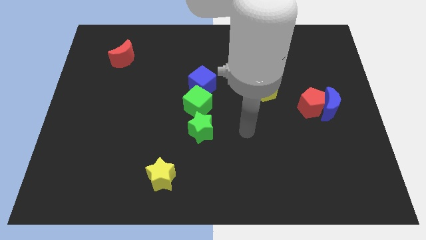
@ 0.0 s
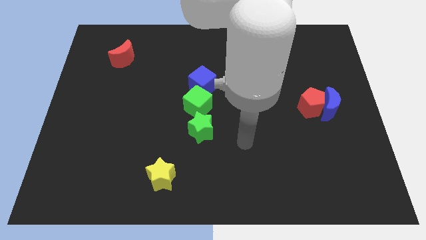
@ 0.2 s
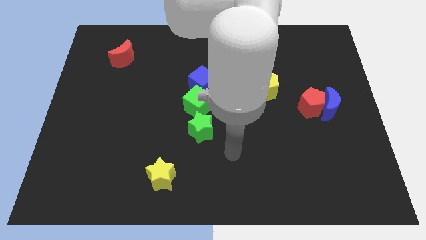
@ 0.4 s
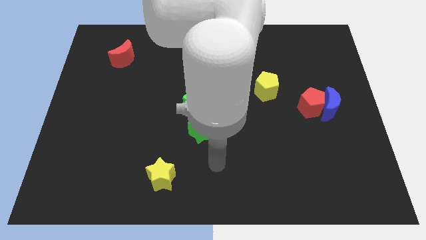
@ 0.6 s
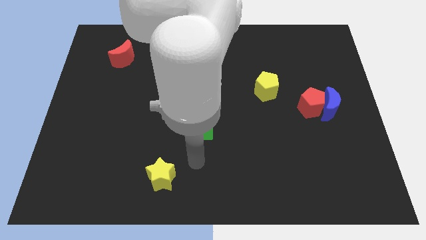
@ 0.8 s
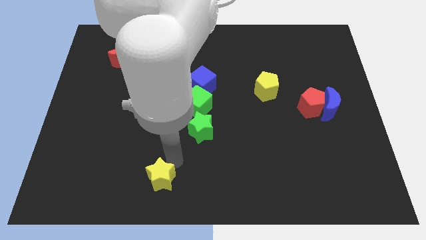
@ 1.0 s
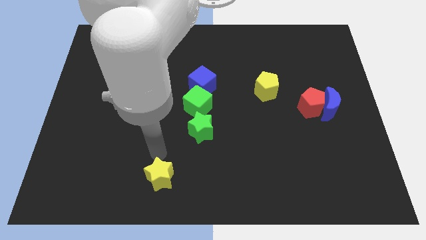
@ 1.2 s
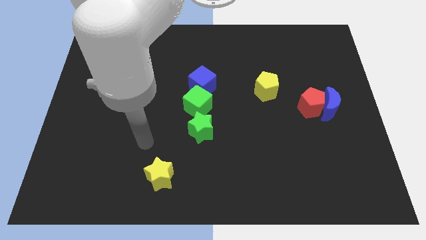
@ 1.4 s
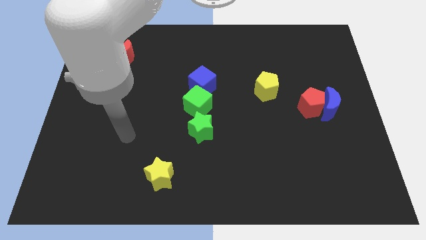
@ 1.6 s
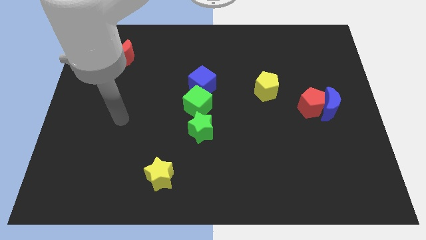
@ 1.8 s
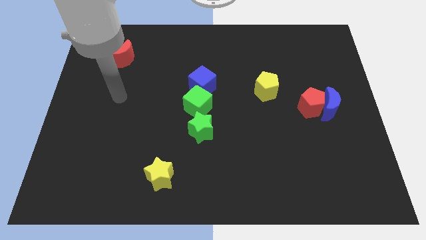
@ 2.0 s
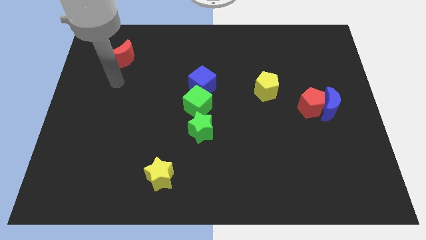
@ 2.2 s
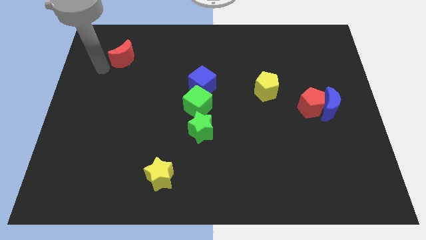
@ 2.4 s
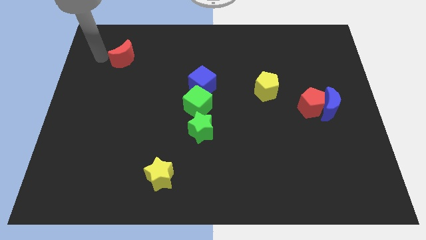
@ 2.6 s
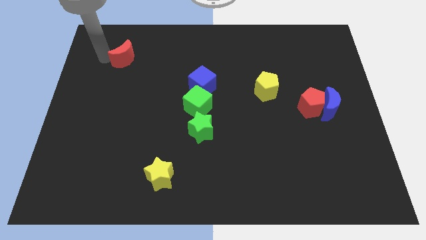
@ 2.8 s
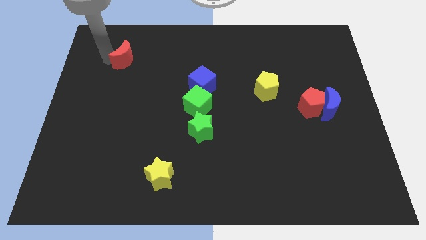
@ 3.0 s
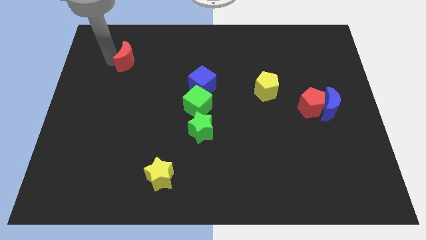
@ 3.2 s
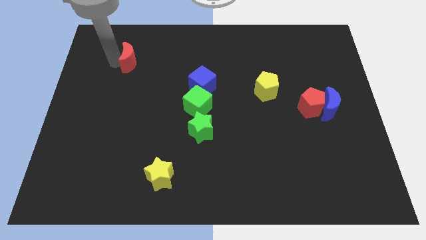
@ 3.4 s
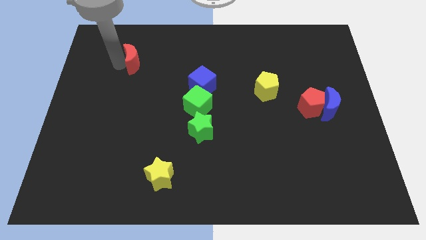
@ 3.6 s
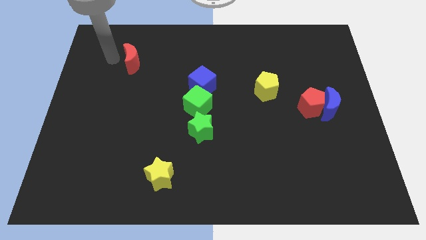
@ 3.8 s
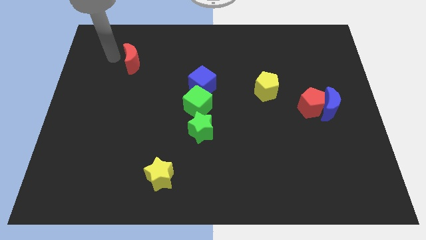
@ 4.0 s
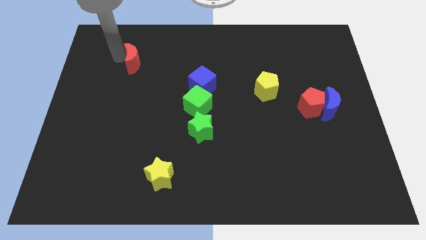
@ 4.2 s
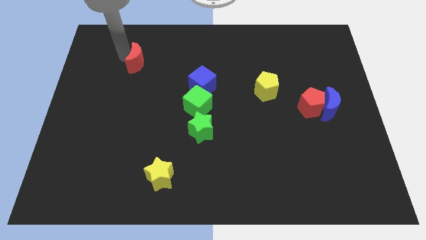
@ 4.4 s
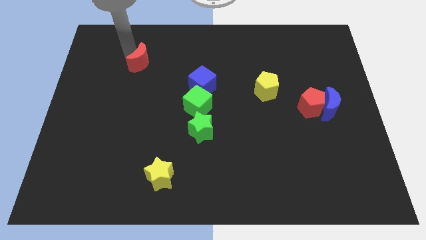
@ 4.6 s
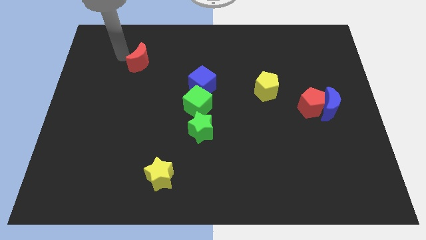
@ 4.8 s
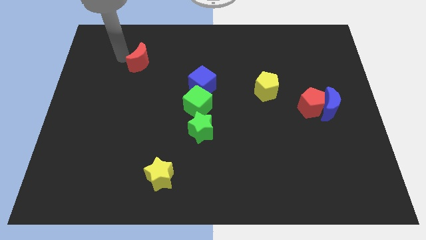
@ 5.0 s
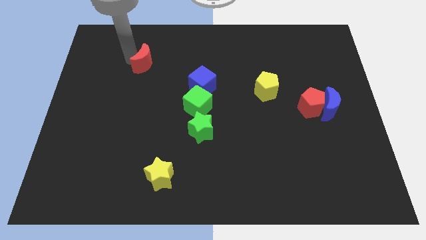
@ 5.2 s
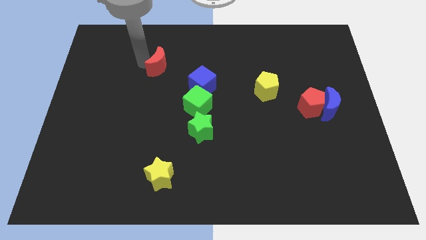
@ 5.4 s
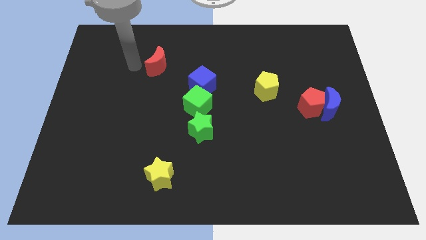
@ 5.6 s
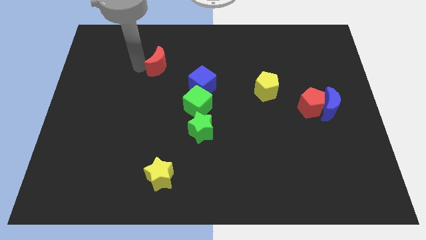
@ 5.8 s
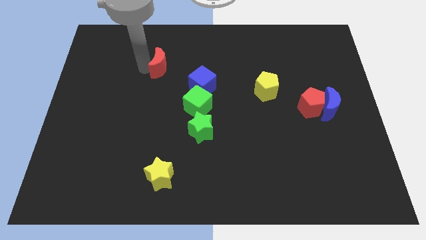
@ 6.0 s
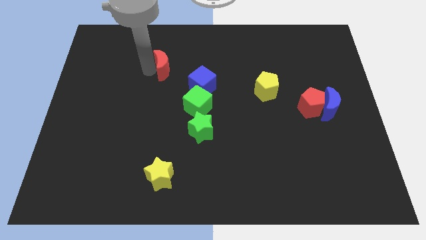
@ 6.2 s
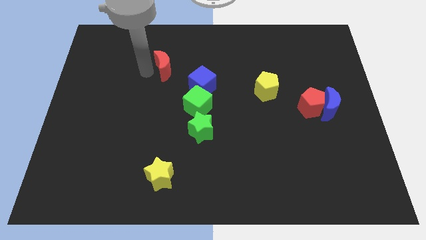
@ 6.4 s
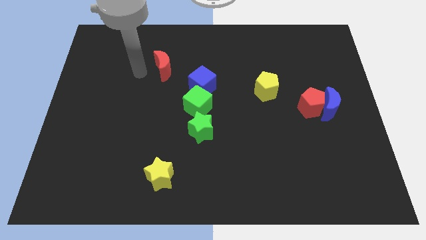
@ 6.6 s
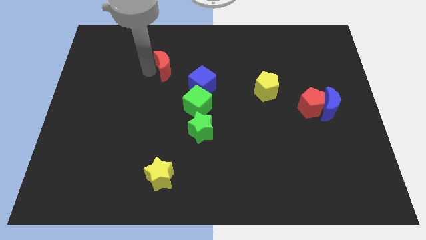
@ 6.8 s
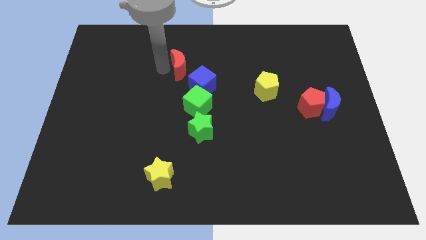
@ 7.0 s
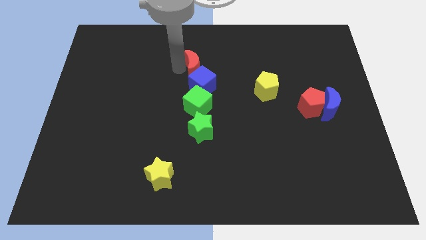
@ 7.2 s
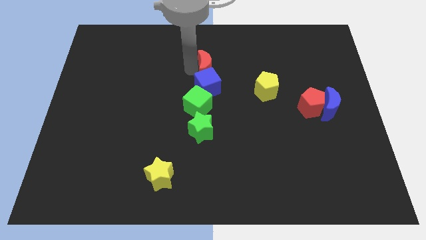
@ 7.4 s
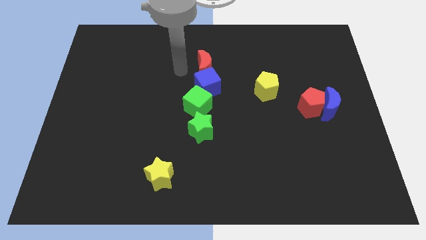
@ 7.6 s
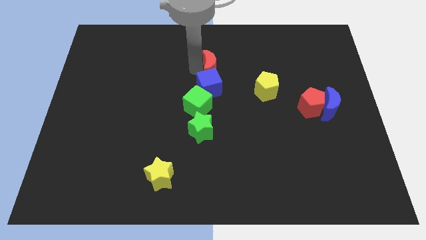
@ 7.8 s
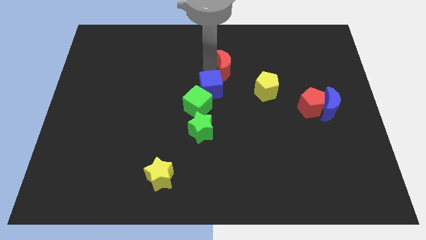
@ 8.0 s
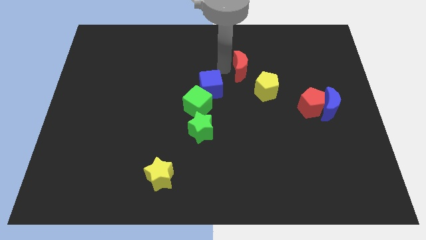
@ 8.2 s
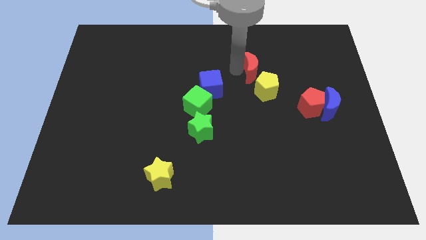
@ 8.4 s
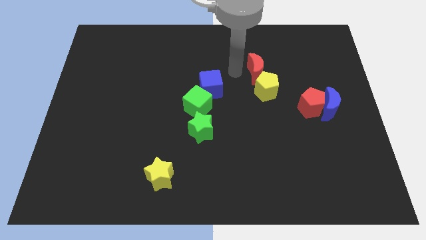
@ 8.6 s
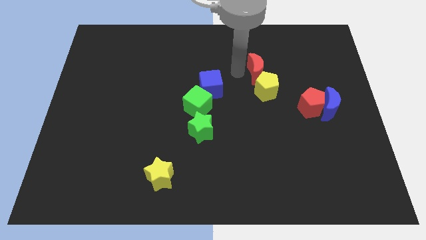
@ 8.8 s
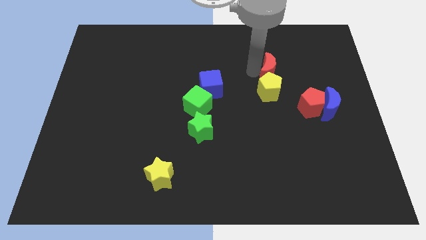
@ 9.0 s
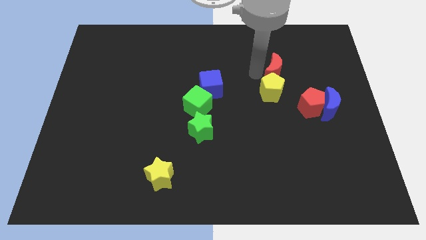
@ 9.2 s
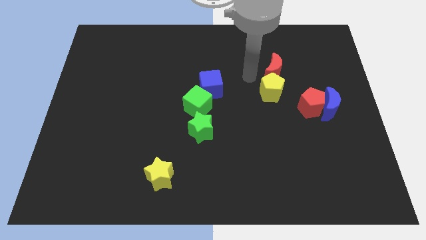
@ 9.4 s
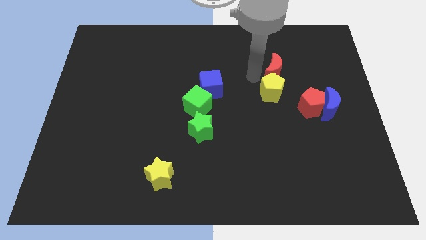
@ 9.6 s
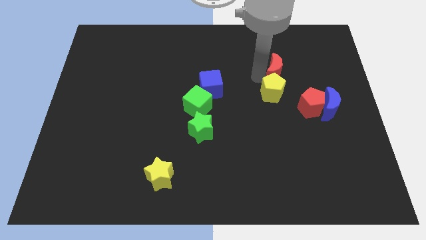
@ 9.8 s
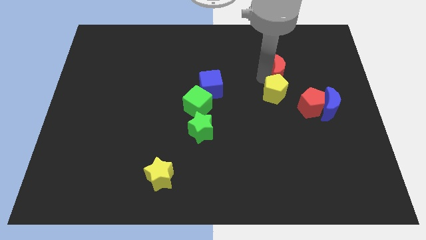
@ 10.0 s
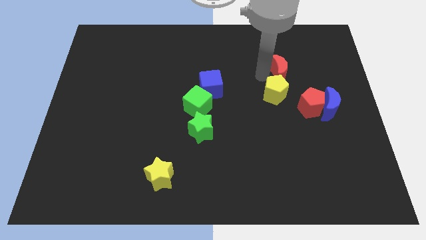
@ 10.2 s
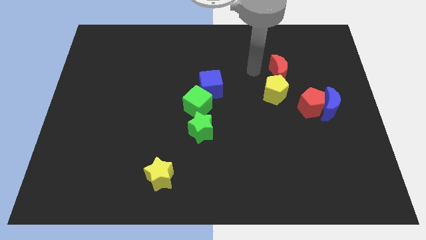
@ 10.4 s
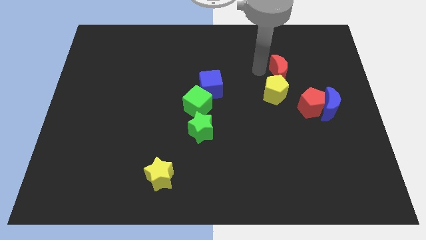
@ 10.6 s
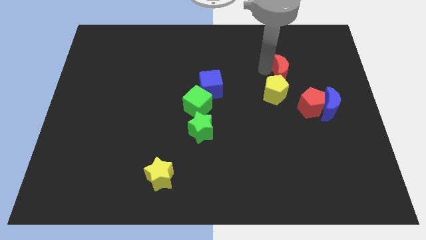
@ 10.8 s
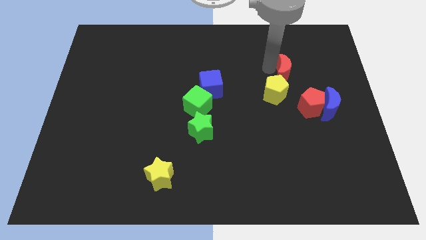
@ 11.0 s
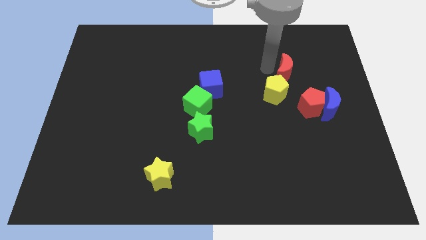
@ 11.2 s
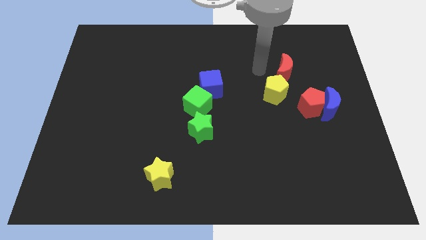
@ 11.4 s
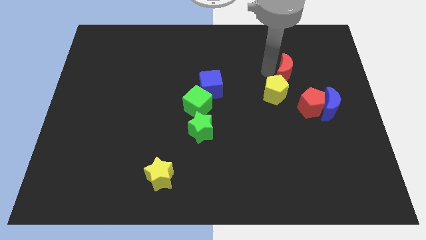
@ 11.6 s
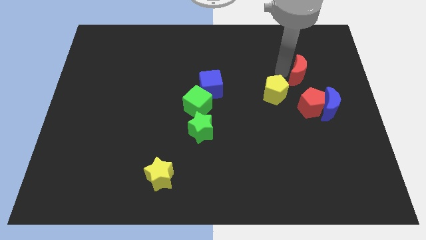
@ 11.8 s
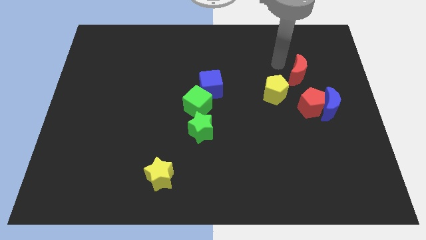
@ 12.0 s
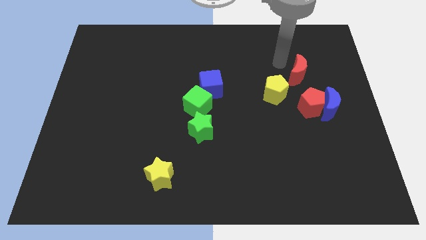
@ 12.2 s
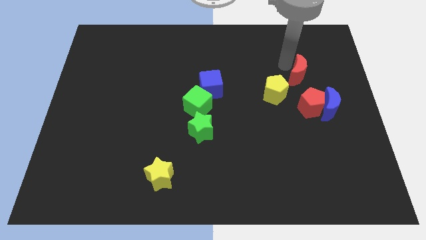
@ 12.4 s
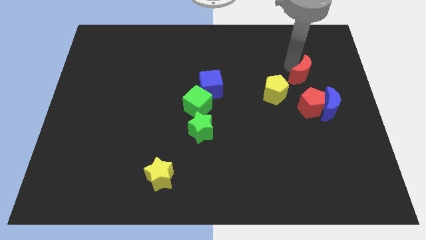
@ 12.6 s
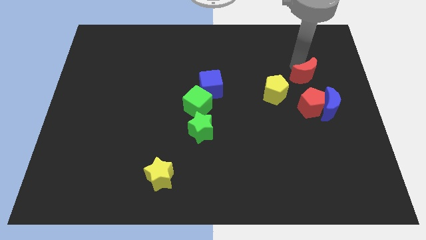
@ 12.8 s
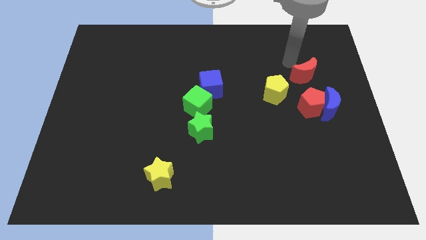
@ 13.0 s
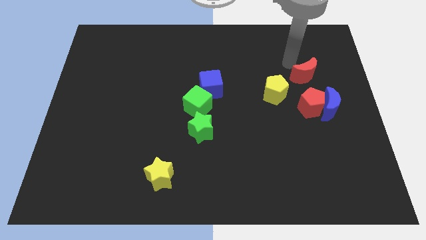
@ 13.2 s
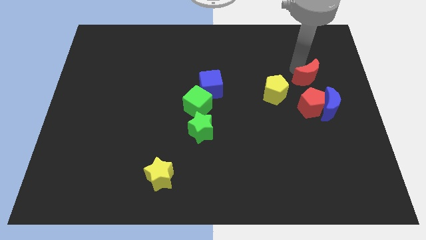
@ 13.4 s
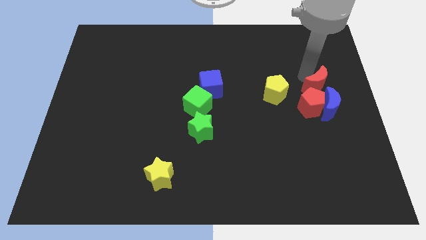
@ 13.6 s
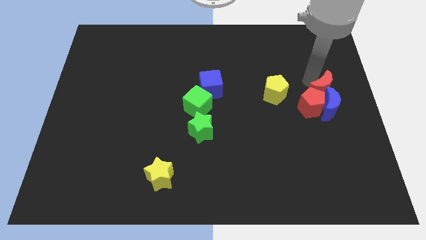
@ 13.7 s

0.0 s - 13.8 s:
push the red moon close to the blue moon

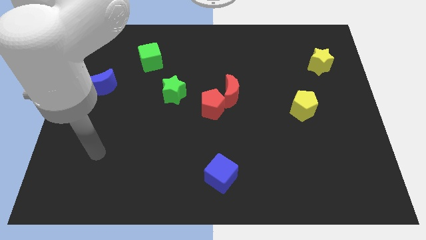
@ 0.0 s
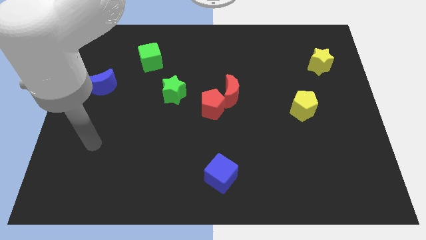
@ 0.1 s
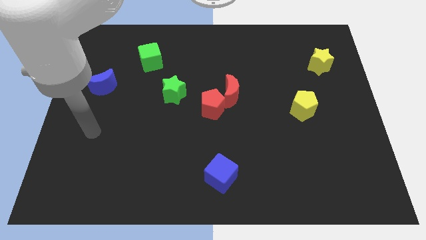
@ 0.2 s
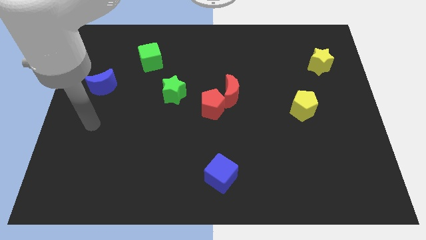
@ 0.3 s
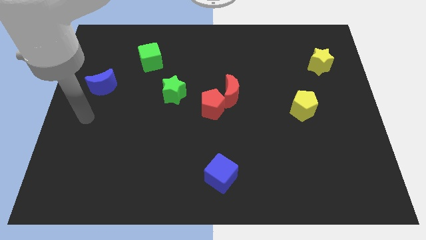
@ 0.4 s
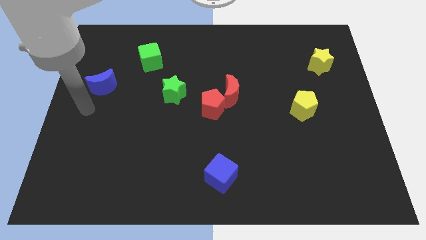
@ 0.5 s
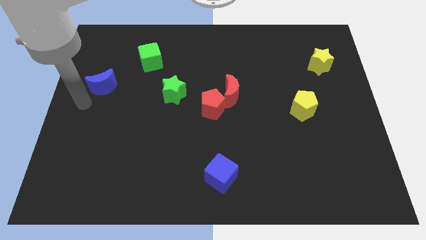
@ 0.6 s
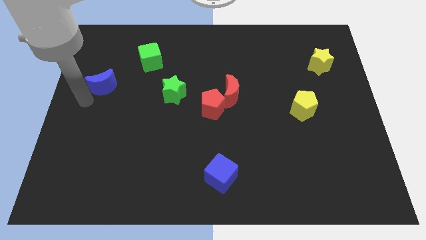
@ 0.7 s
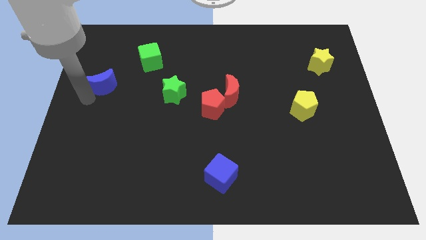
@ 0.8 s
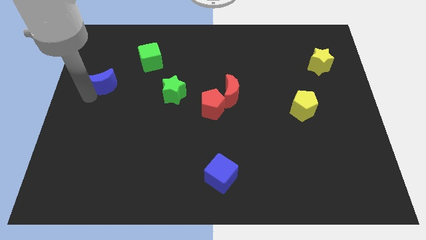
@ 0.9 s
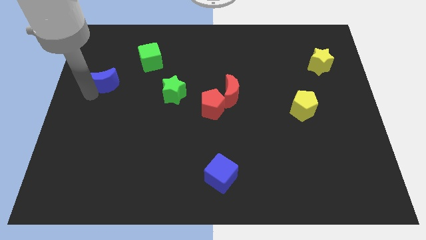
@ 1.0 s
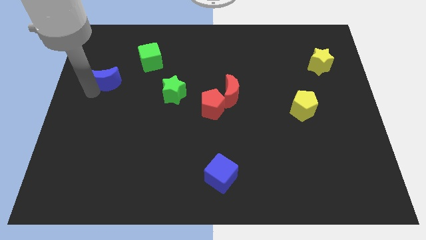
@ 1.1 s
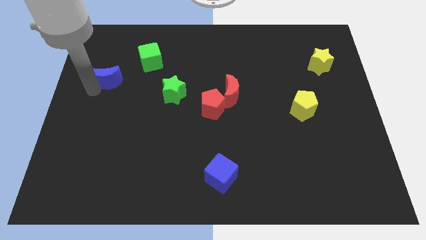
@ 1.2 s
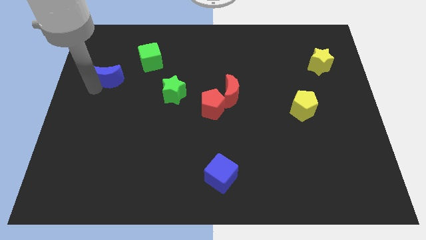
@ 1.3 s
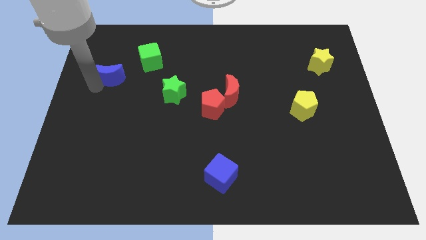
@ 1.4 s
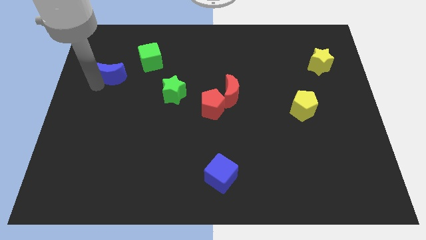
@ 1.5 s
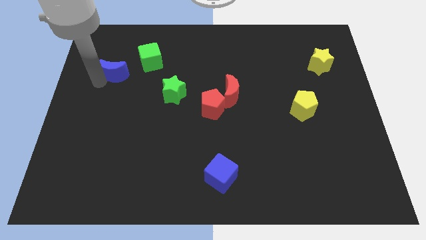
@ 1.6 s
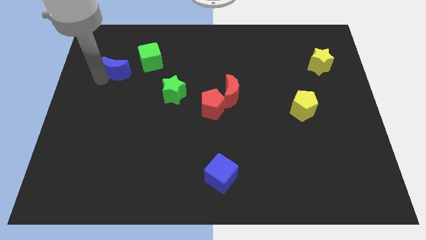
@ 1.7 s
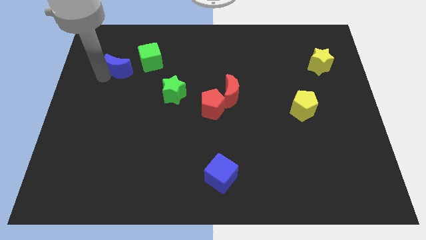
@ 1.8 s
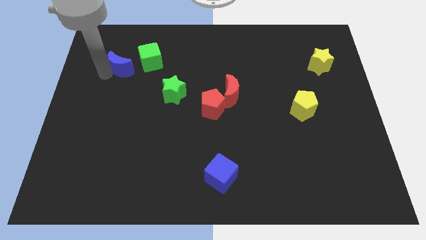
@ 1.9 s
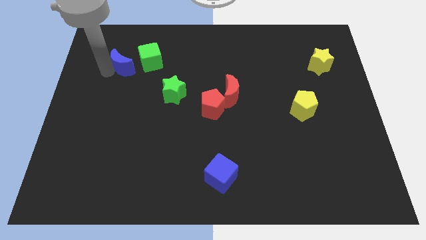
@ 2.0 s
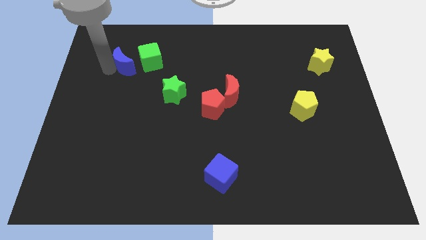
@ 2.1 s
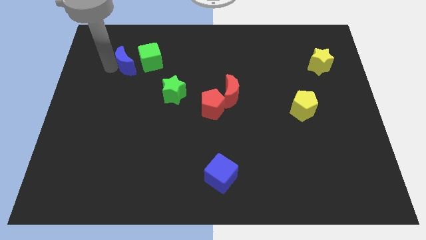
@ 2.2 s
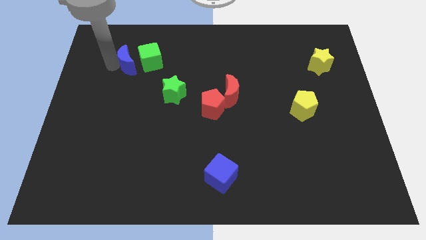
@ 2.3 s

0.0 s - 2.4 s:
push the blue moon towards the green cube
